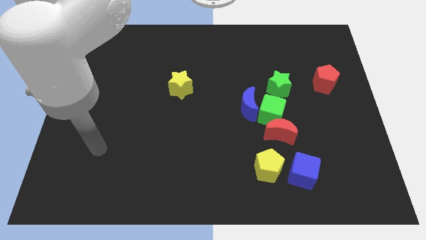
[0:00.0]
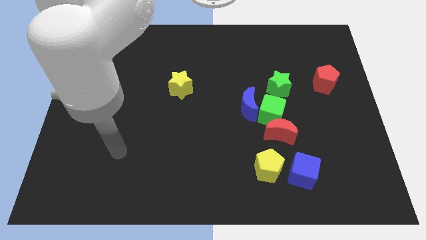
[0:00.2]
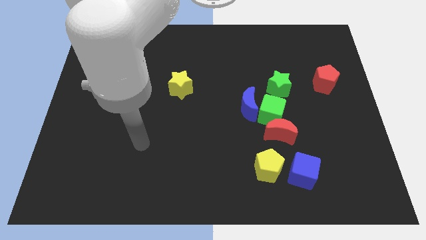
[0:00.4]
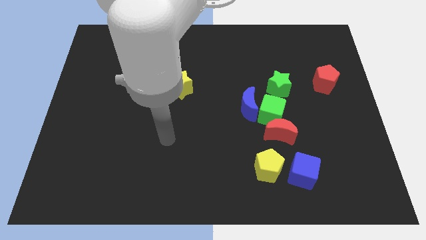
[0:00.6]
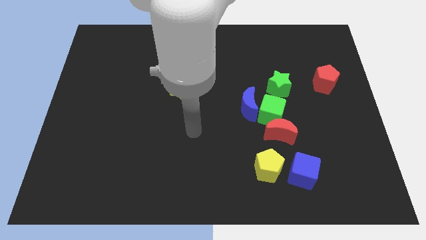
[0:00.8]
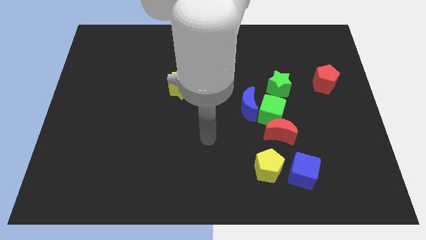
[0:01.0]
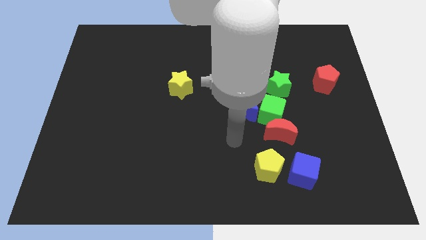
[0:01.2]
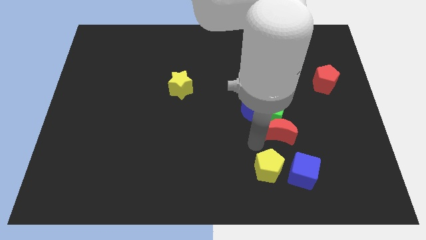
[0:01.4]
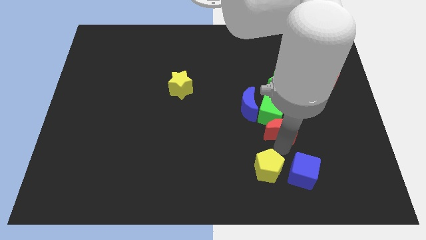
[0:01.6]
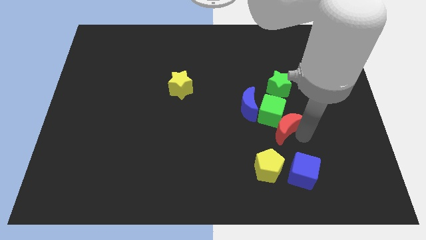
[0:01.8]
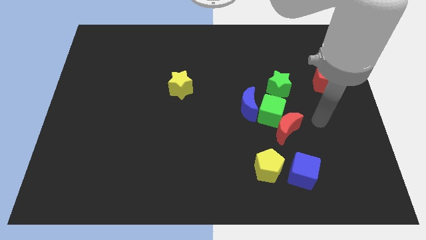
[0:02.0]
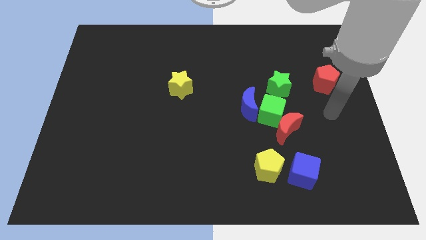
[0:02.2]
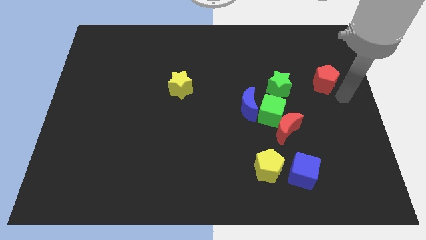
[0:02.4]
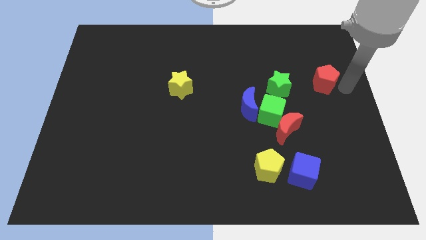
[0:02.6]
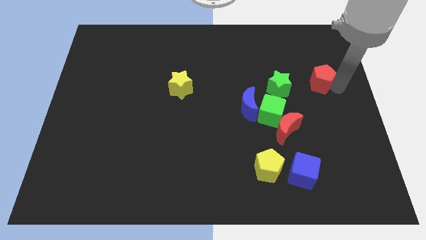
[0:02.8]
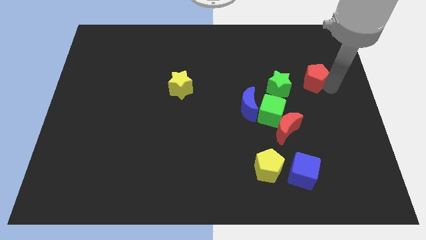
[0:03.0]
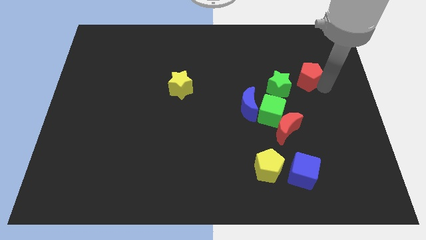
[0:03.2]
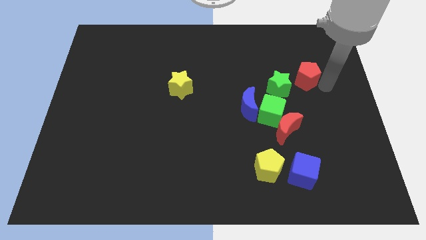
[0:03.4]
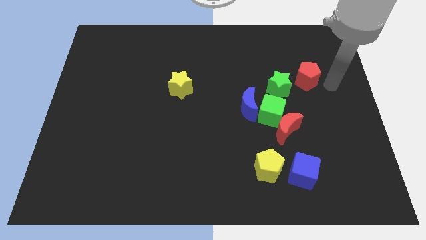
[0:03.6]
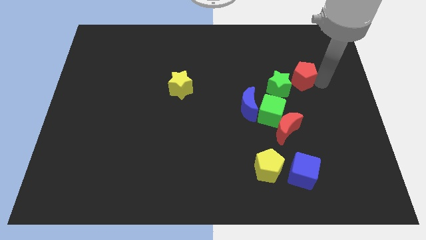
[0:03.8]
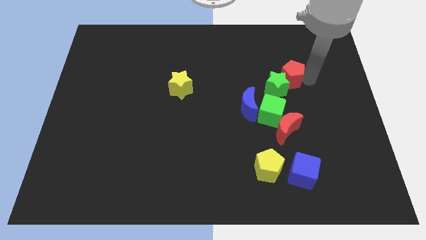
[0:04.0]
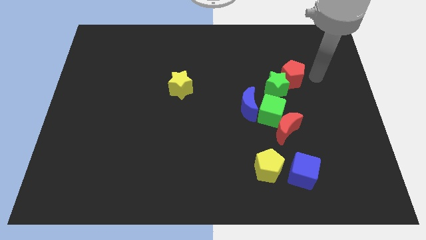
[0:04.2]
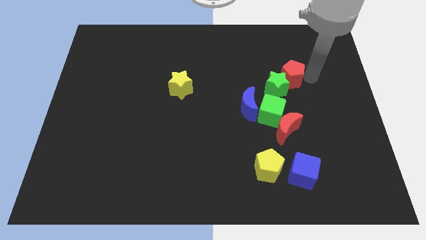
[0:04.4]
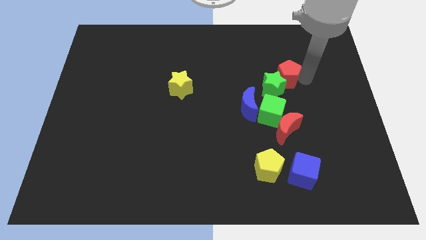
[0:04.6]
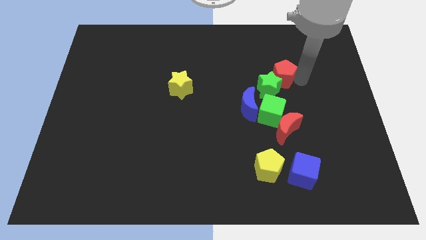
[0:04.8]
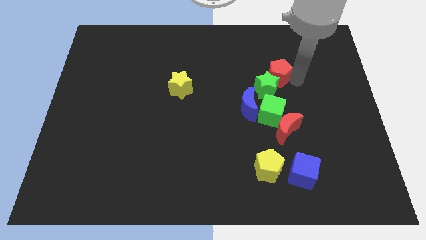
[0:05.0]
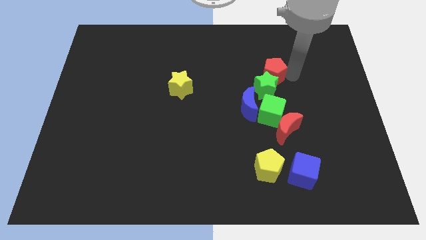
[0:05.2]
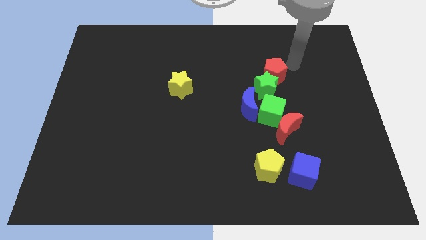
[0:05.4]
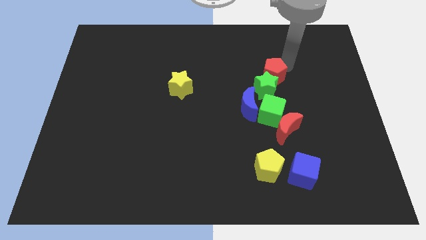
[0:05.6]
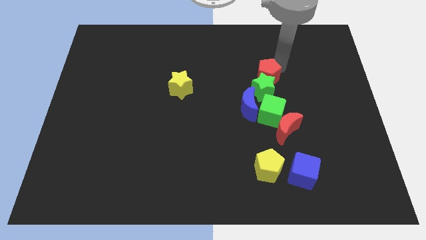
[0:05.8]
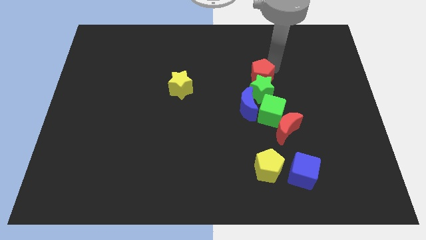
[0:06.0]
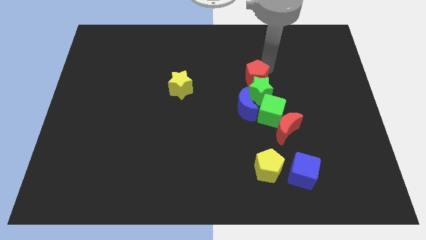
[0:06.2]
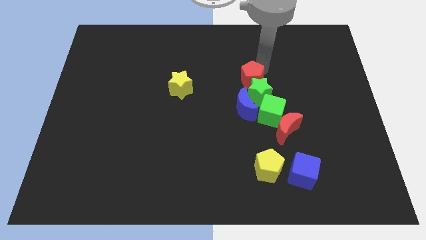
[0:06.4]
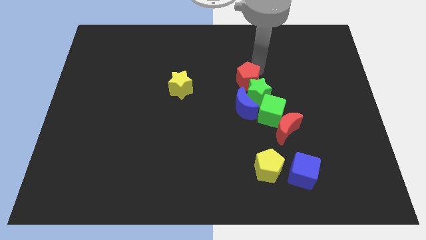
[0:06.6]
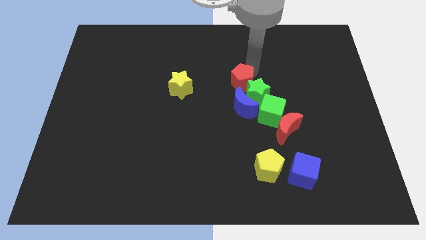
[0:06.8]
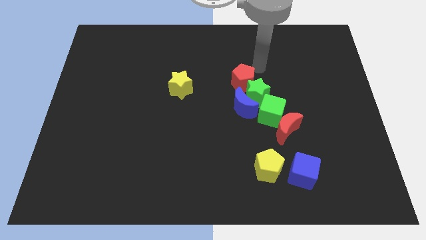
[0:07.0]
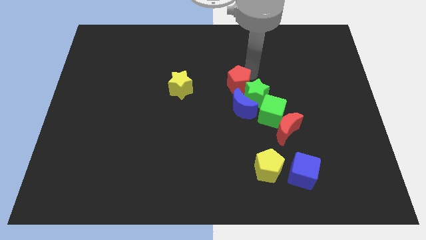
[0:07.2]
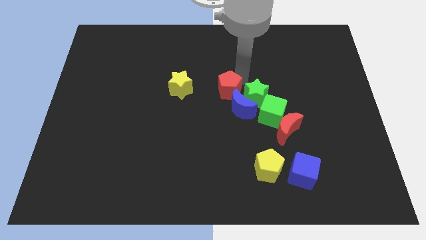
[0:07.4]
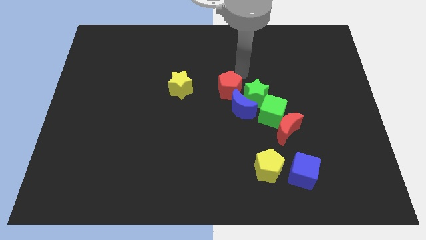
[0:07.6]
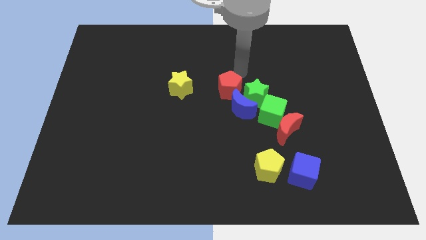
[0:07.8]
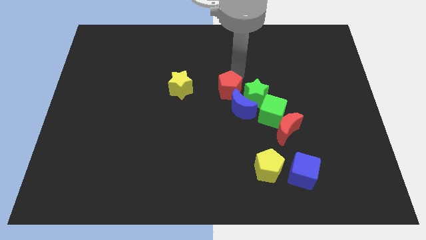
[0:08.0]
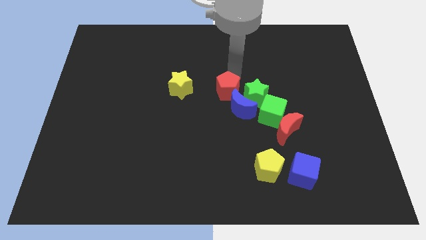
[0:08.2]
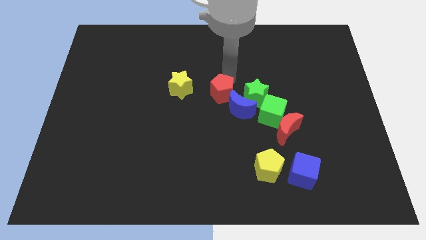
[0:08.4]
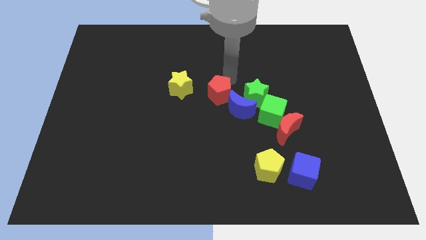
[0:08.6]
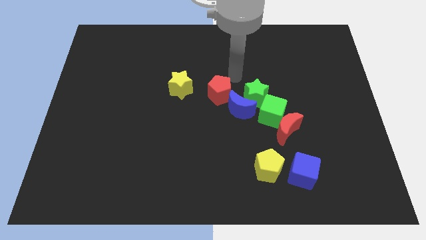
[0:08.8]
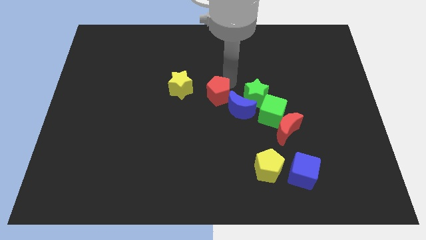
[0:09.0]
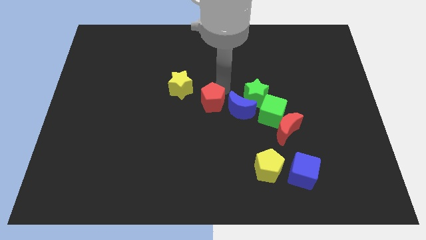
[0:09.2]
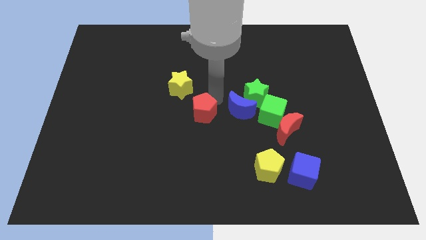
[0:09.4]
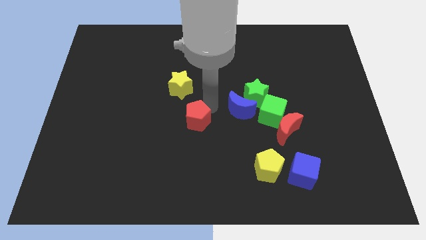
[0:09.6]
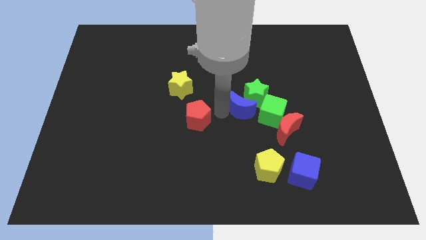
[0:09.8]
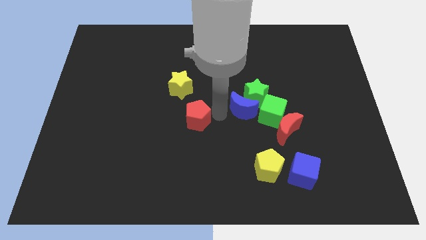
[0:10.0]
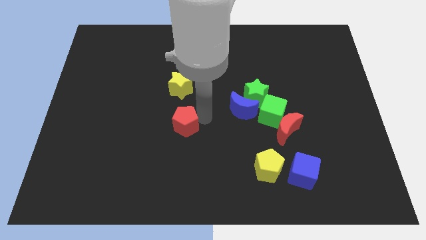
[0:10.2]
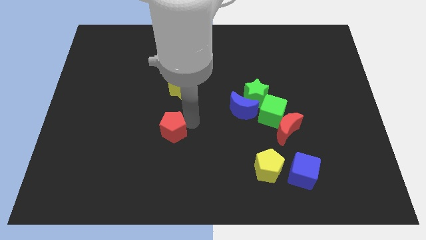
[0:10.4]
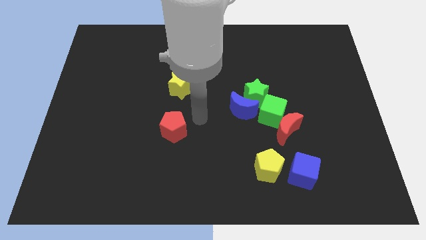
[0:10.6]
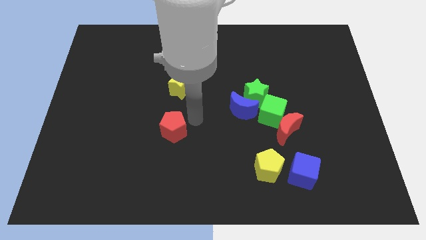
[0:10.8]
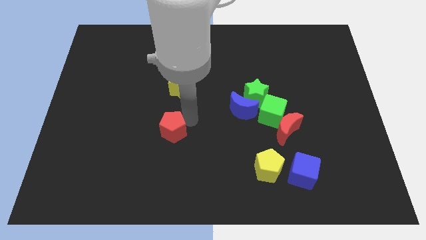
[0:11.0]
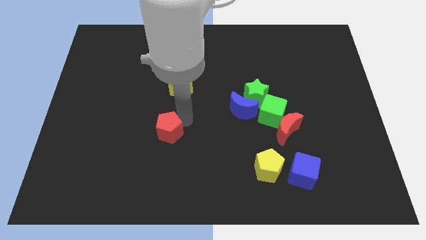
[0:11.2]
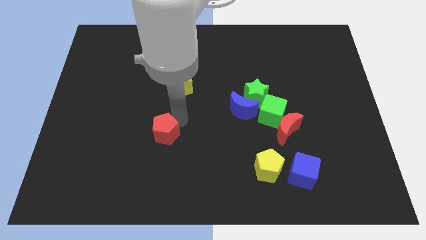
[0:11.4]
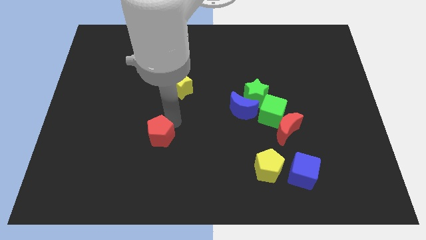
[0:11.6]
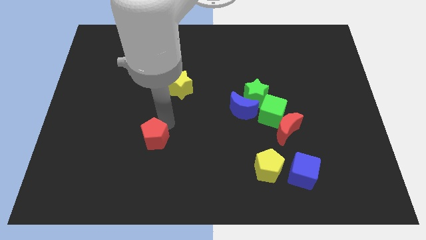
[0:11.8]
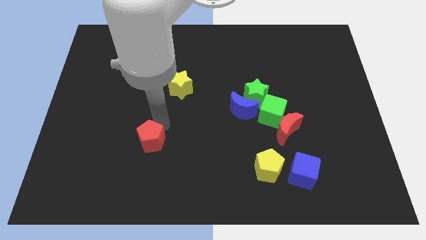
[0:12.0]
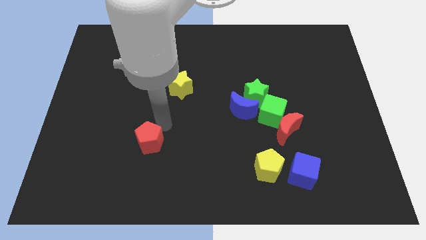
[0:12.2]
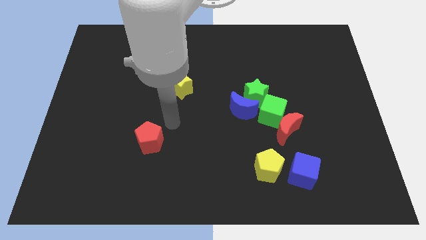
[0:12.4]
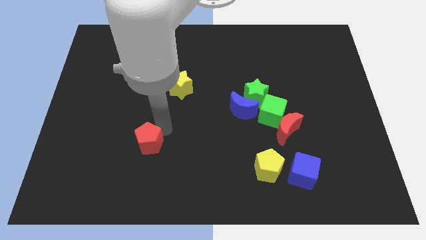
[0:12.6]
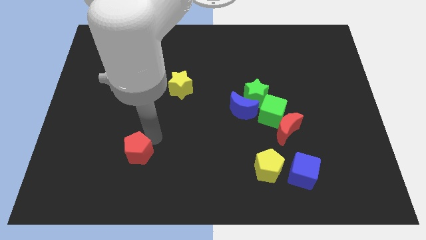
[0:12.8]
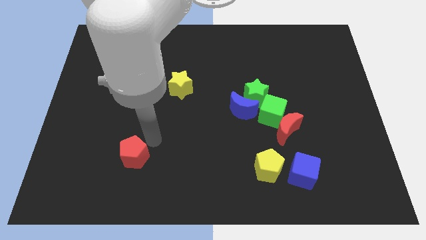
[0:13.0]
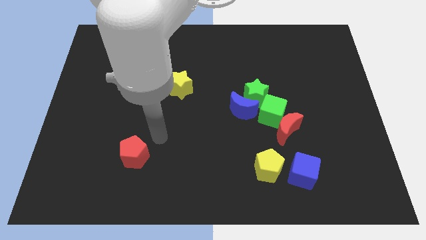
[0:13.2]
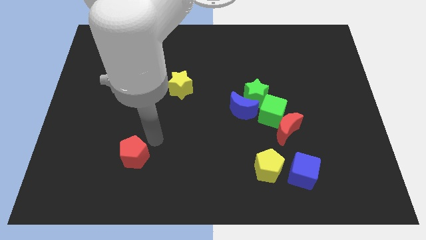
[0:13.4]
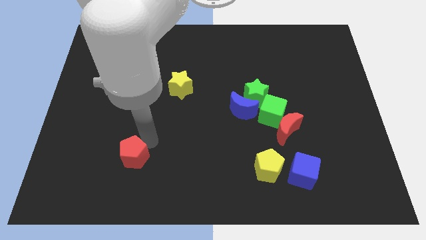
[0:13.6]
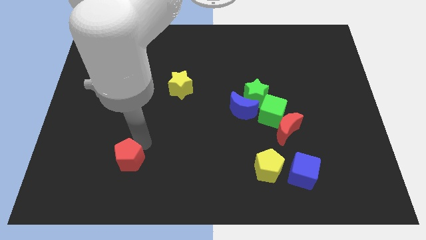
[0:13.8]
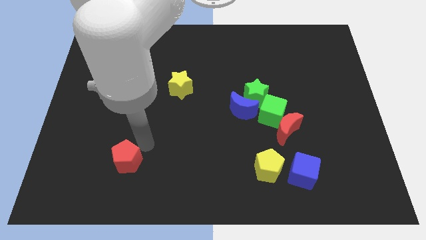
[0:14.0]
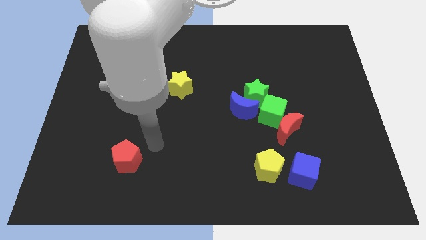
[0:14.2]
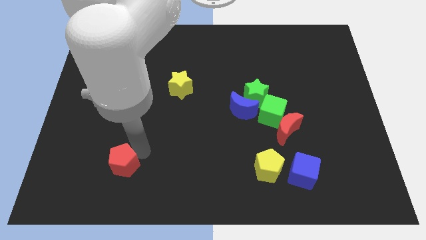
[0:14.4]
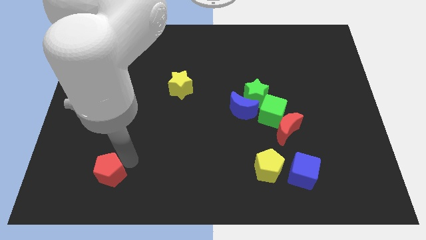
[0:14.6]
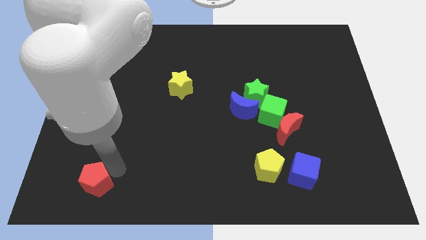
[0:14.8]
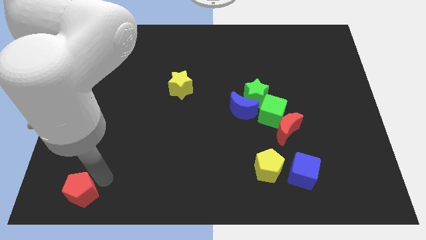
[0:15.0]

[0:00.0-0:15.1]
slide the red pentagon to the bottom left
